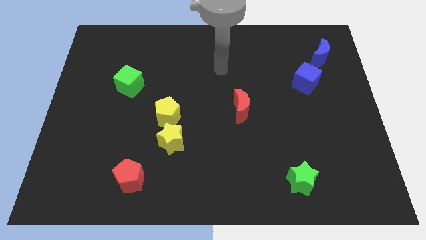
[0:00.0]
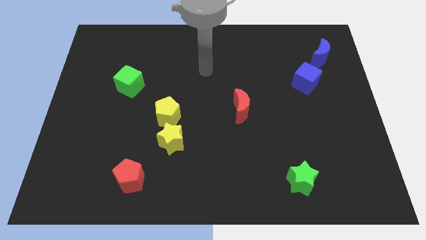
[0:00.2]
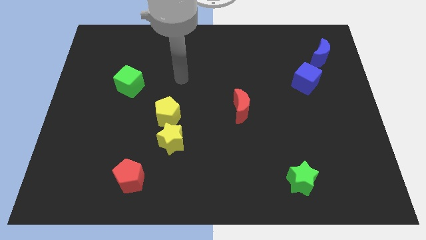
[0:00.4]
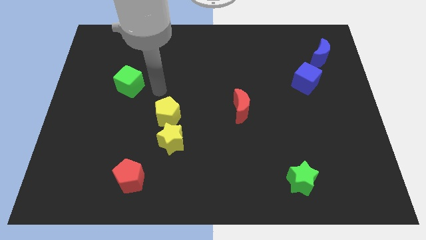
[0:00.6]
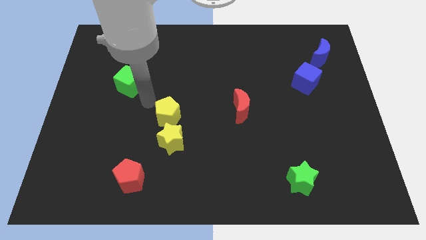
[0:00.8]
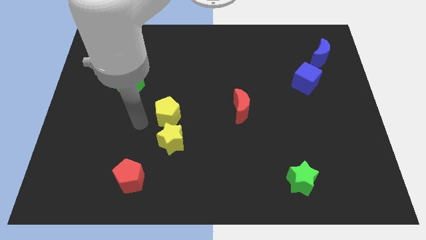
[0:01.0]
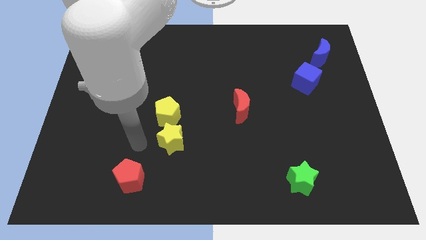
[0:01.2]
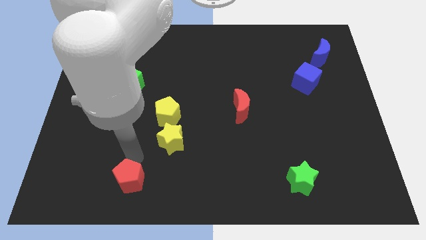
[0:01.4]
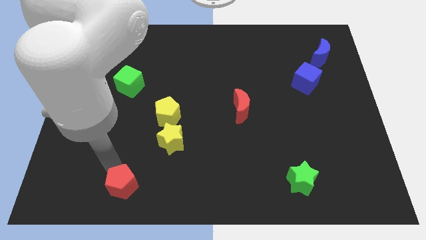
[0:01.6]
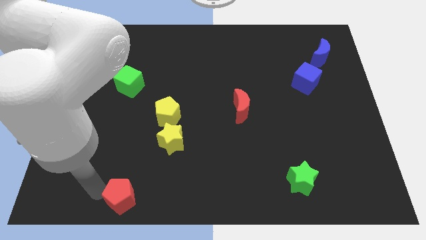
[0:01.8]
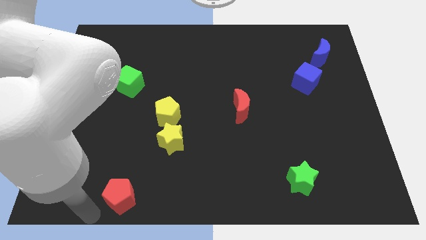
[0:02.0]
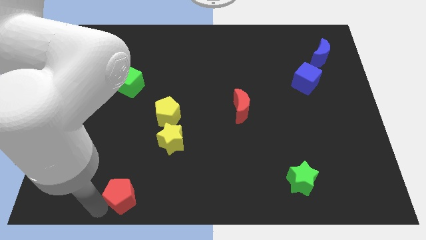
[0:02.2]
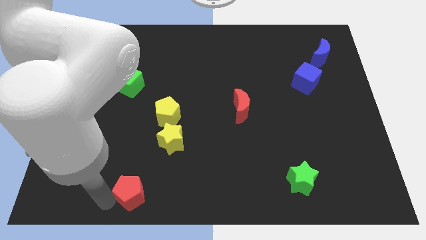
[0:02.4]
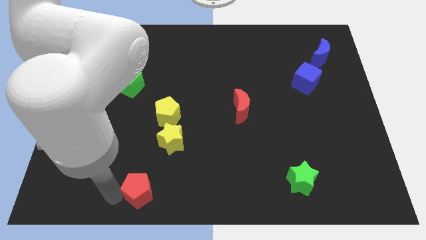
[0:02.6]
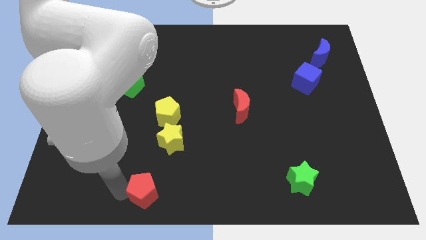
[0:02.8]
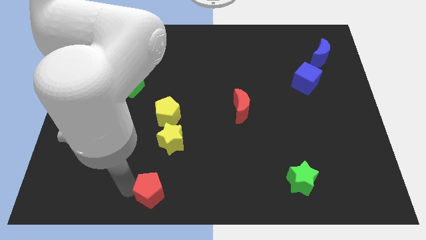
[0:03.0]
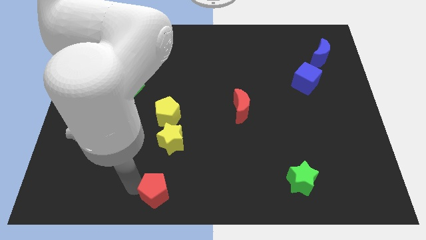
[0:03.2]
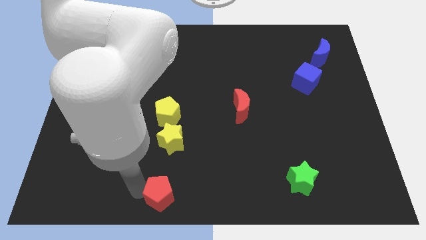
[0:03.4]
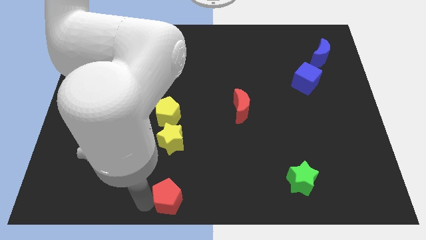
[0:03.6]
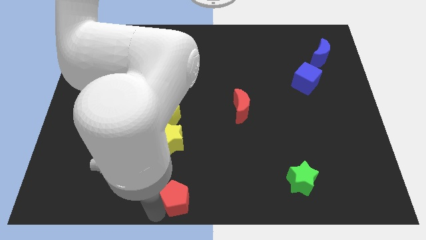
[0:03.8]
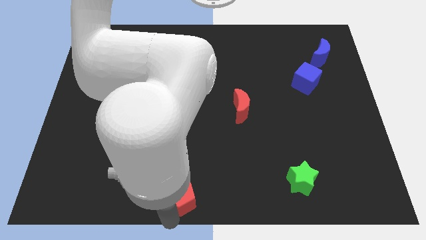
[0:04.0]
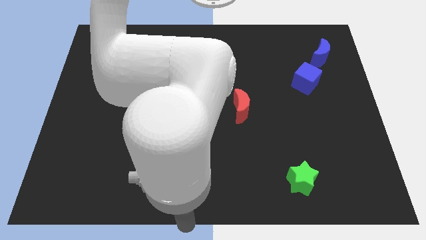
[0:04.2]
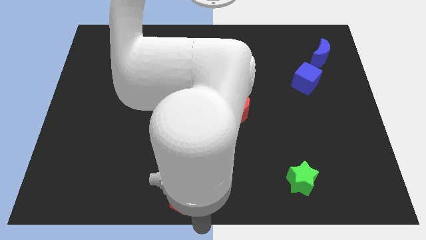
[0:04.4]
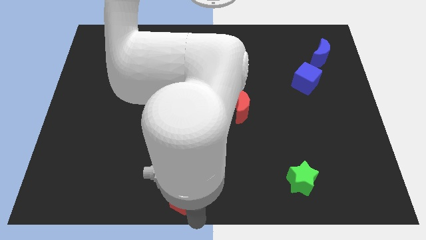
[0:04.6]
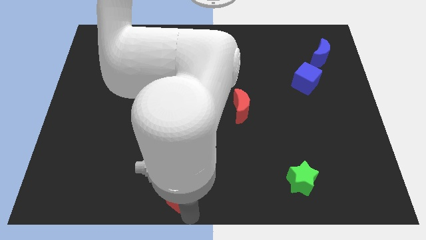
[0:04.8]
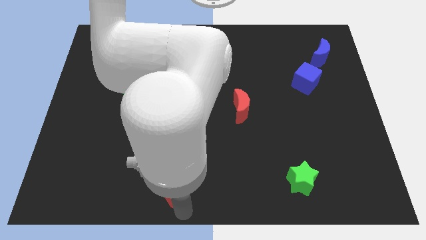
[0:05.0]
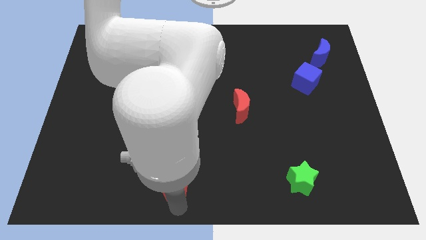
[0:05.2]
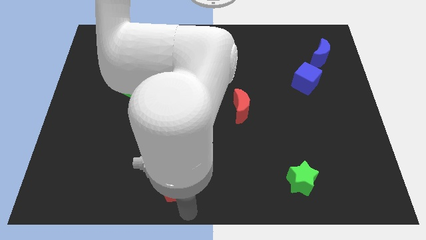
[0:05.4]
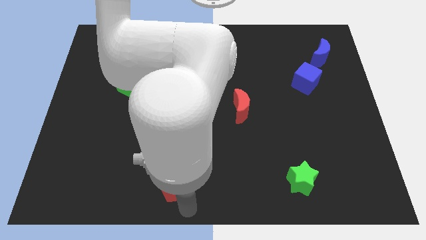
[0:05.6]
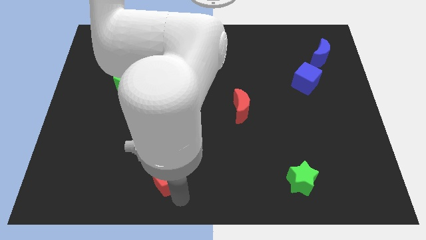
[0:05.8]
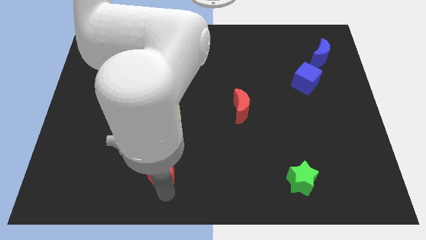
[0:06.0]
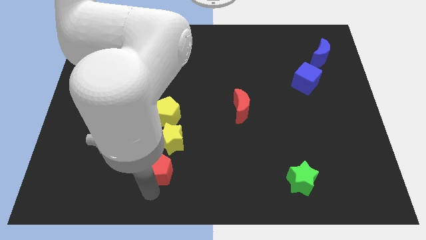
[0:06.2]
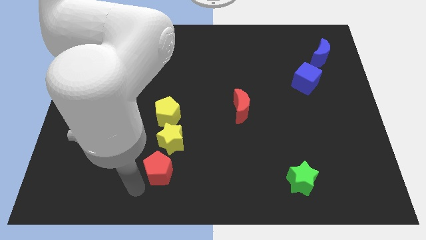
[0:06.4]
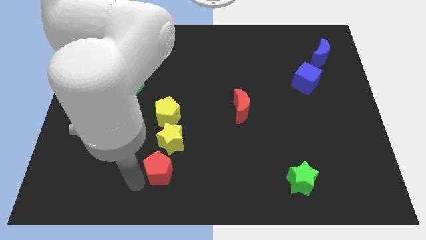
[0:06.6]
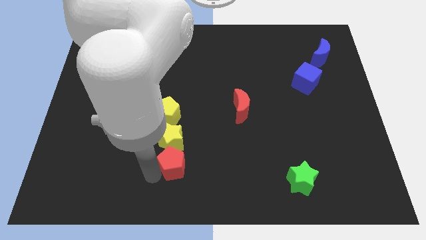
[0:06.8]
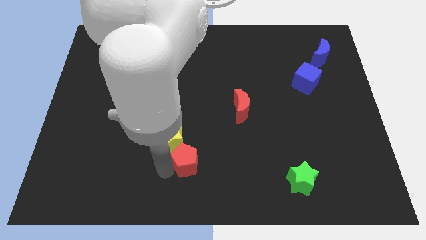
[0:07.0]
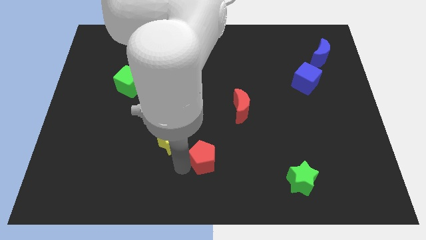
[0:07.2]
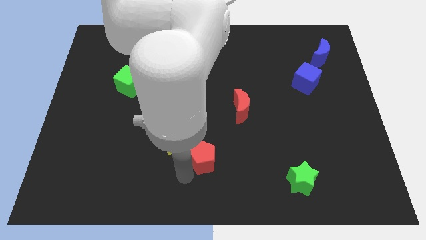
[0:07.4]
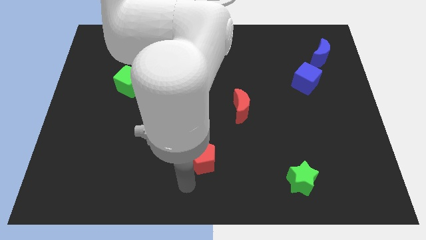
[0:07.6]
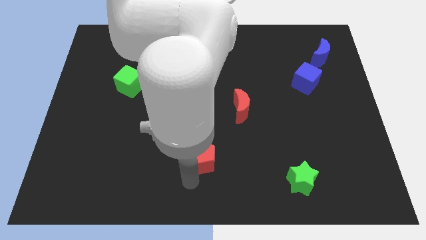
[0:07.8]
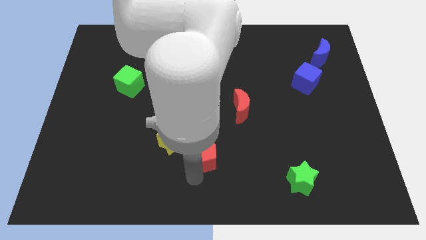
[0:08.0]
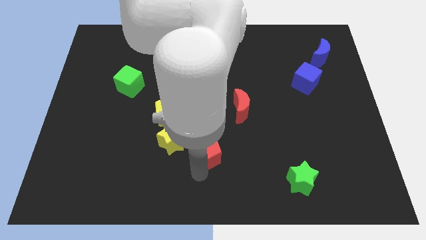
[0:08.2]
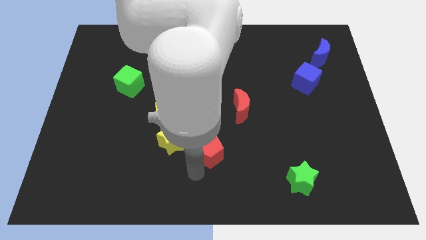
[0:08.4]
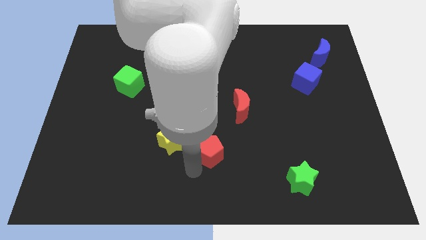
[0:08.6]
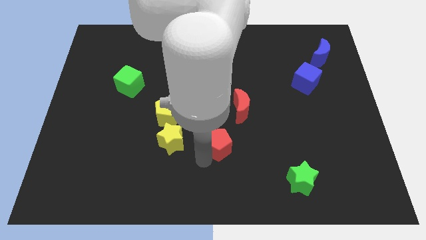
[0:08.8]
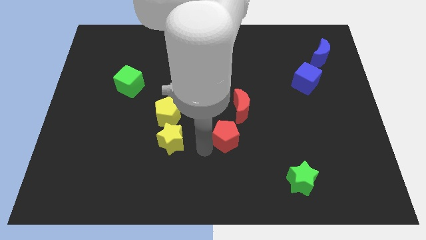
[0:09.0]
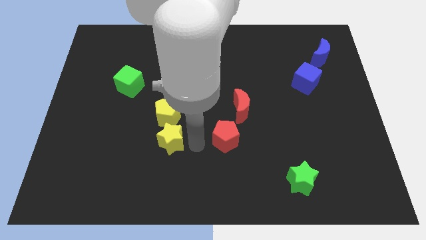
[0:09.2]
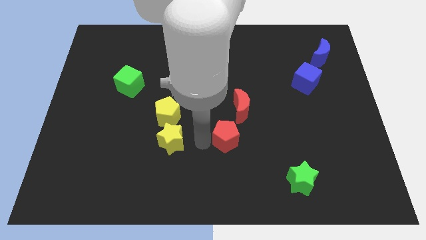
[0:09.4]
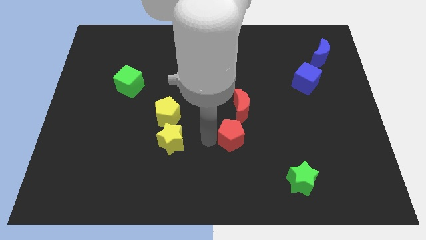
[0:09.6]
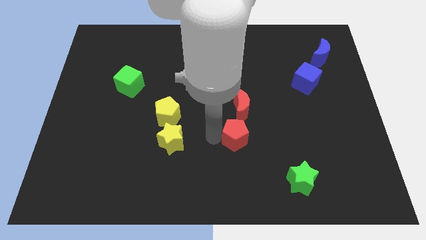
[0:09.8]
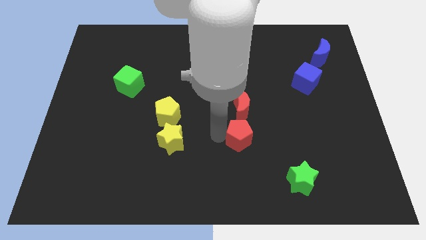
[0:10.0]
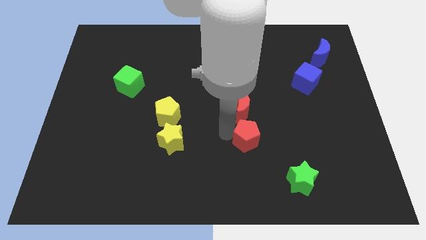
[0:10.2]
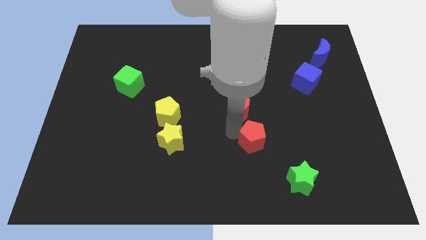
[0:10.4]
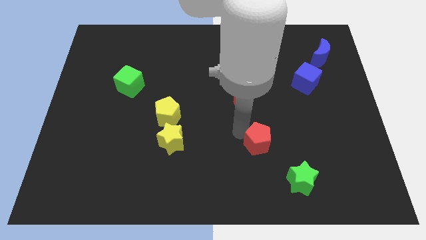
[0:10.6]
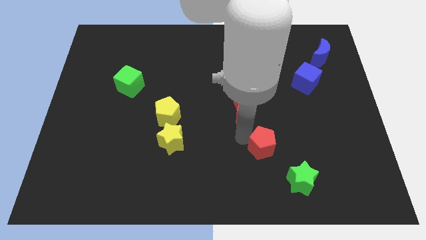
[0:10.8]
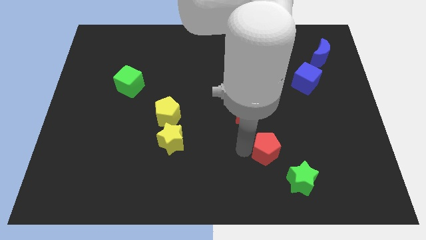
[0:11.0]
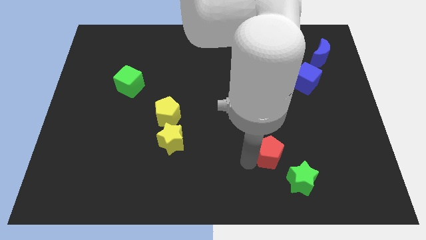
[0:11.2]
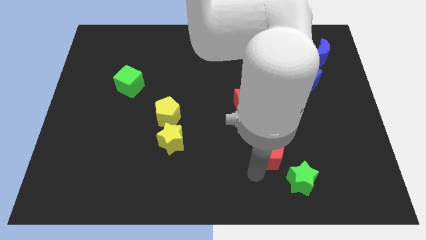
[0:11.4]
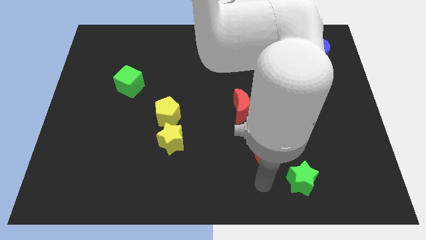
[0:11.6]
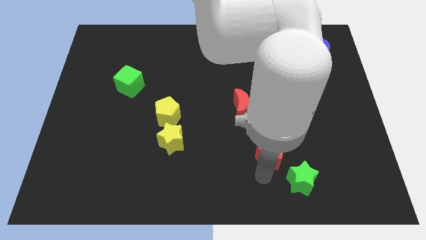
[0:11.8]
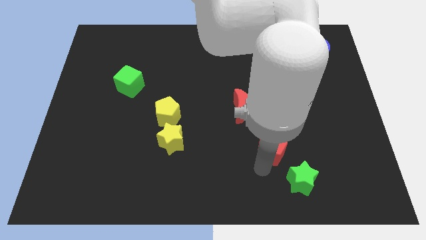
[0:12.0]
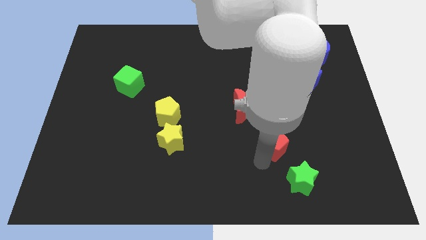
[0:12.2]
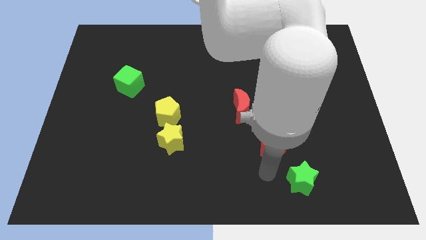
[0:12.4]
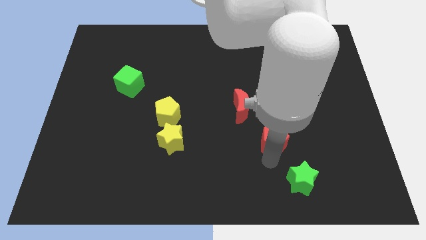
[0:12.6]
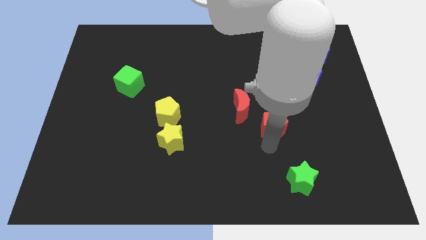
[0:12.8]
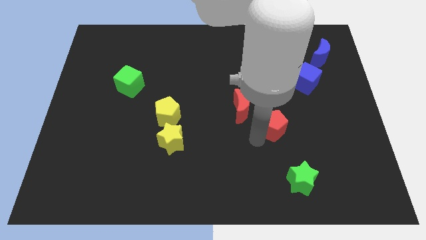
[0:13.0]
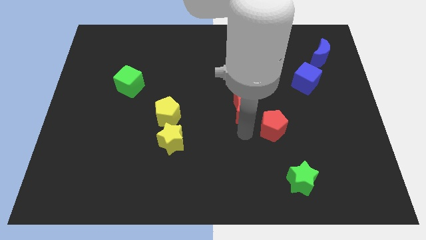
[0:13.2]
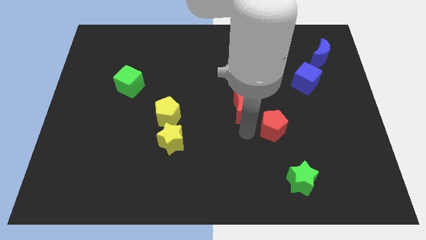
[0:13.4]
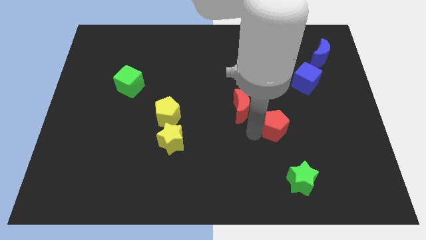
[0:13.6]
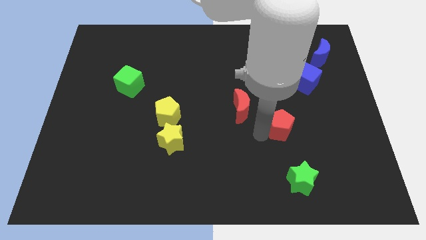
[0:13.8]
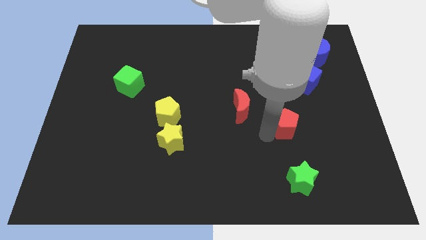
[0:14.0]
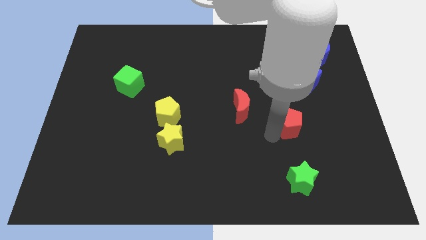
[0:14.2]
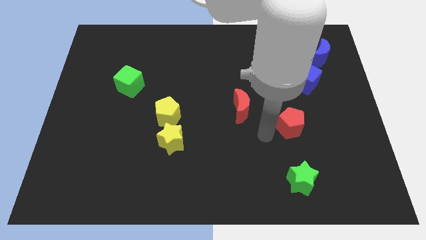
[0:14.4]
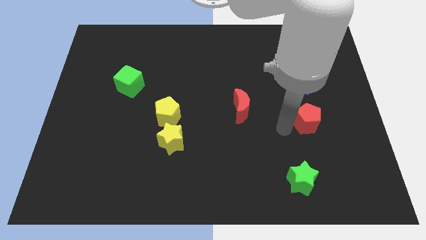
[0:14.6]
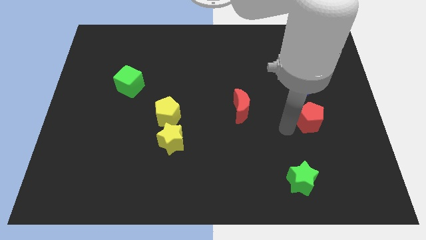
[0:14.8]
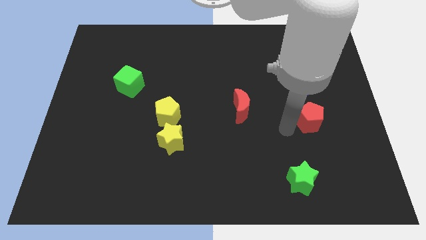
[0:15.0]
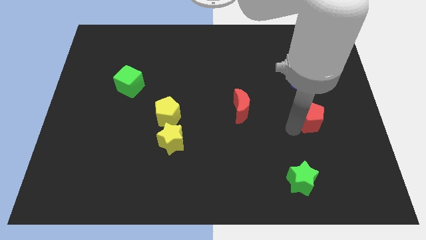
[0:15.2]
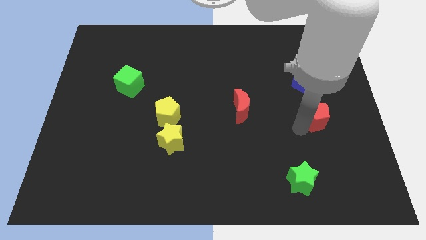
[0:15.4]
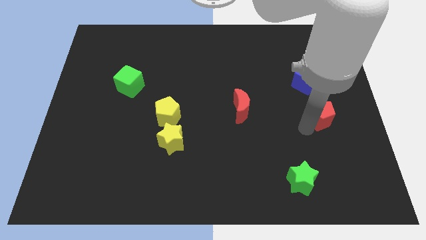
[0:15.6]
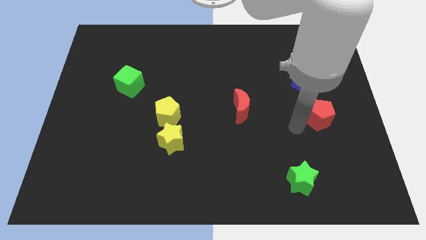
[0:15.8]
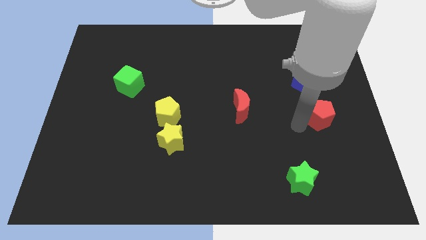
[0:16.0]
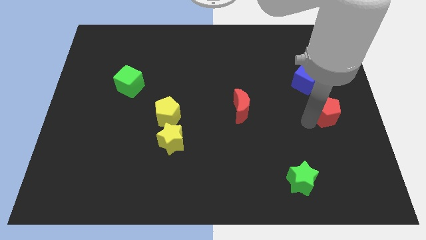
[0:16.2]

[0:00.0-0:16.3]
slide the red pentagon to the center right
